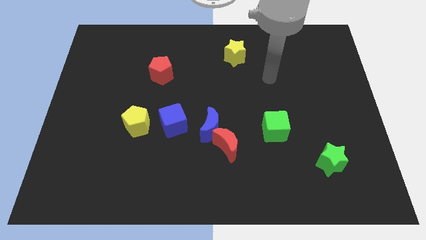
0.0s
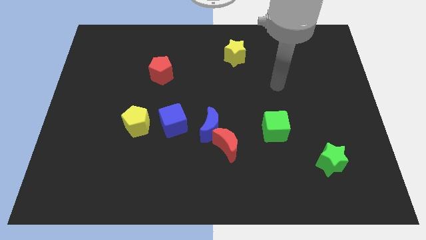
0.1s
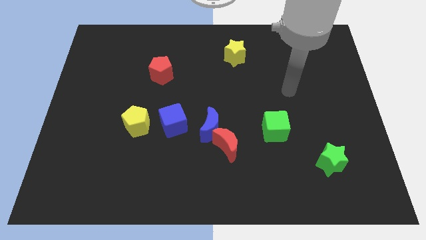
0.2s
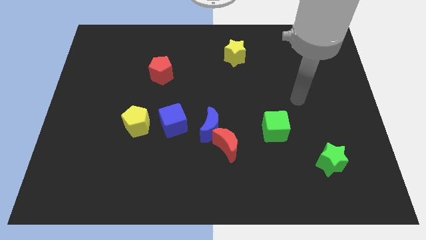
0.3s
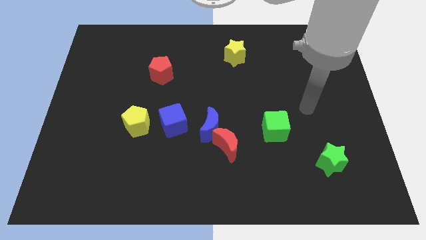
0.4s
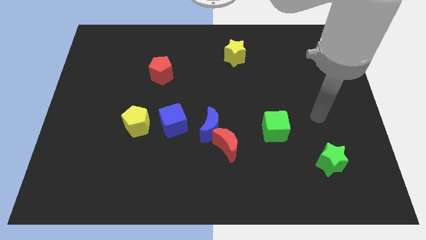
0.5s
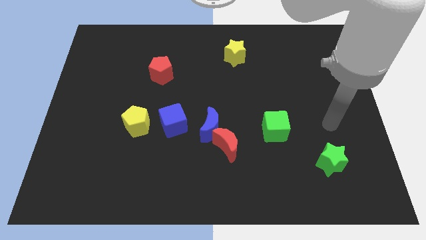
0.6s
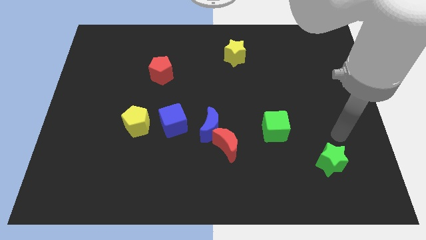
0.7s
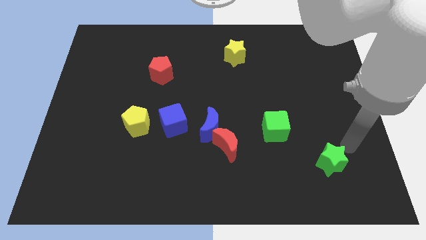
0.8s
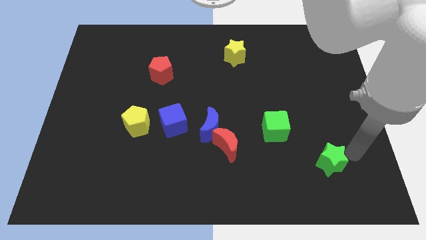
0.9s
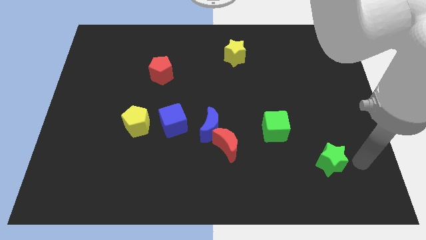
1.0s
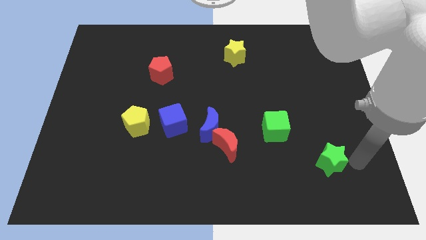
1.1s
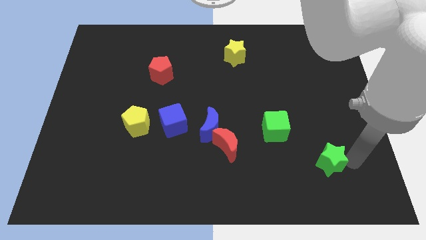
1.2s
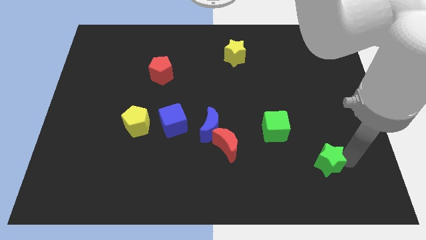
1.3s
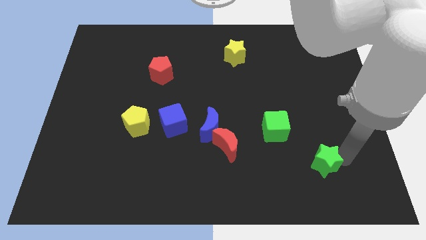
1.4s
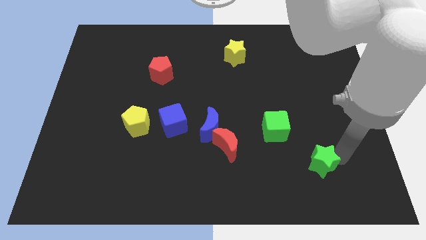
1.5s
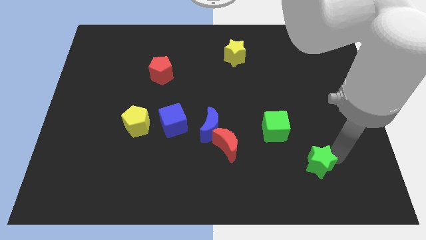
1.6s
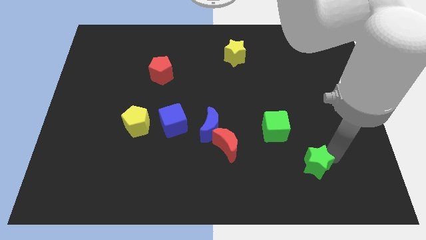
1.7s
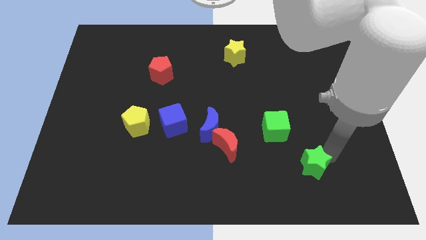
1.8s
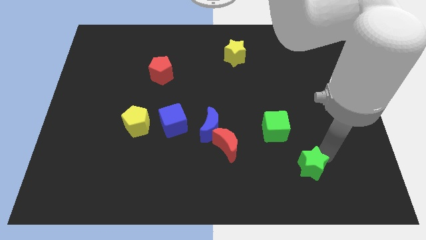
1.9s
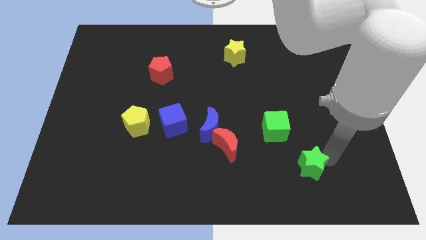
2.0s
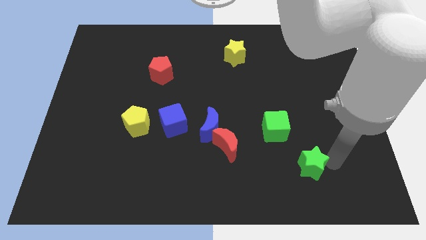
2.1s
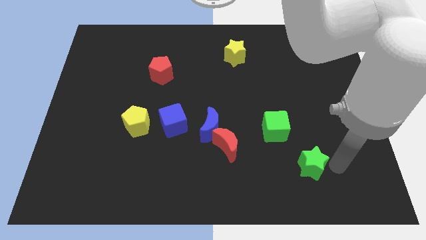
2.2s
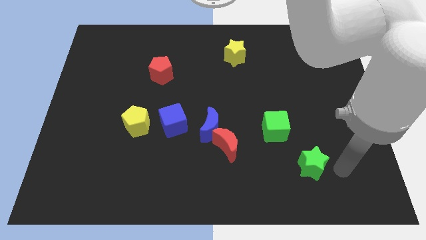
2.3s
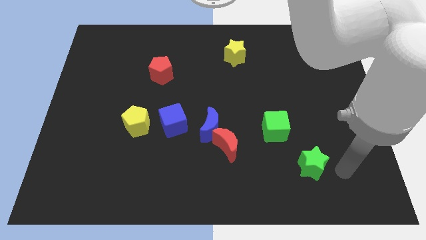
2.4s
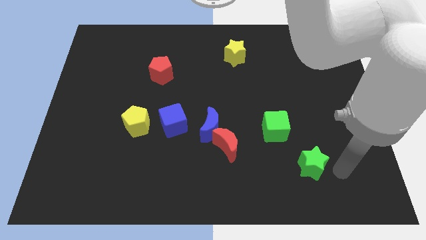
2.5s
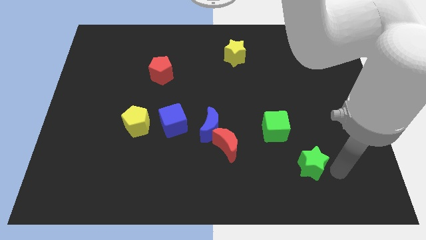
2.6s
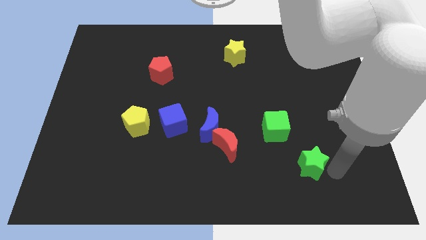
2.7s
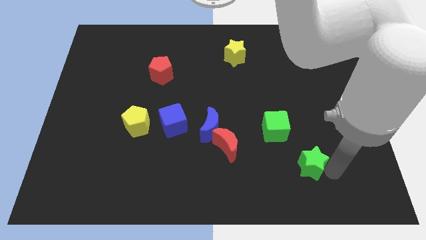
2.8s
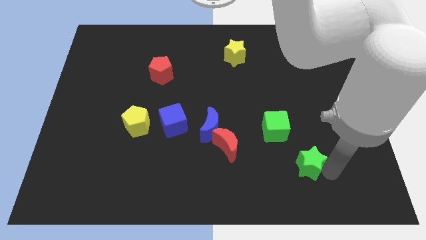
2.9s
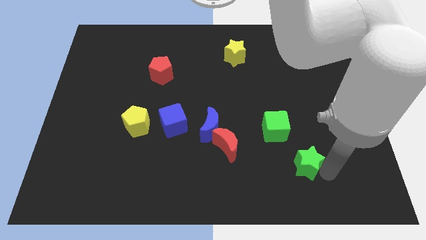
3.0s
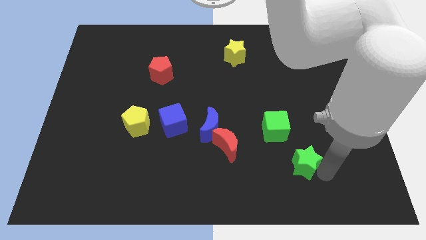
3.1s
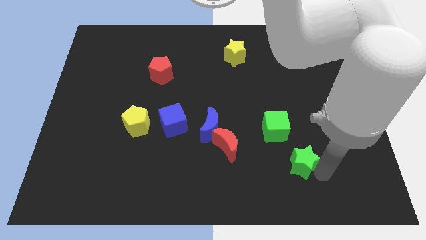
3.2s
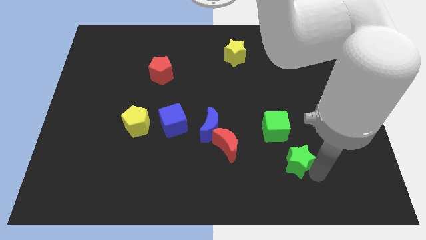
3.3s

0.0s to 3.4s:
slide the green star a little bit to the left

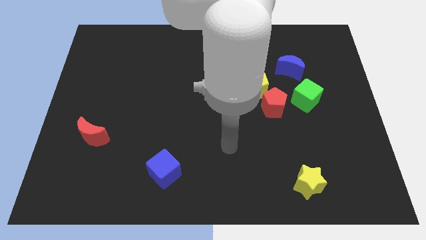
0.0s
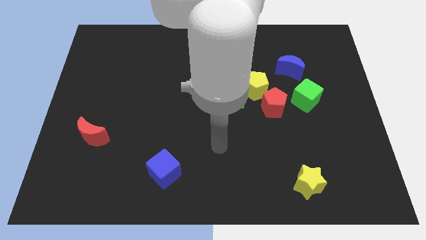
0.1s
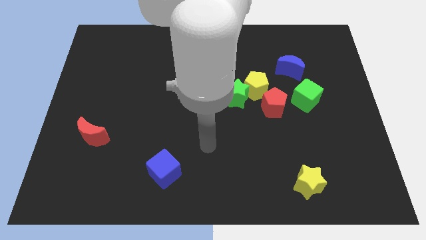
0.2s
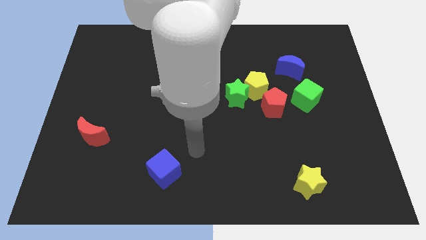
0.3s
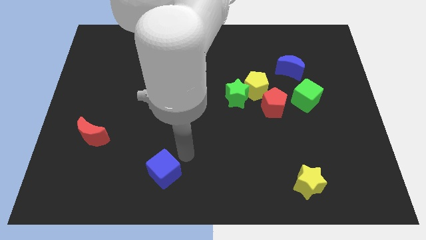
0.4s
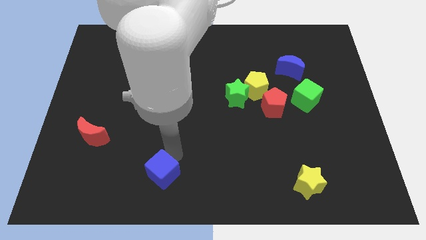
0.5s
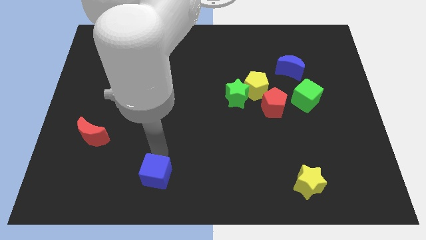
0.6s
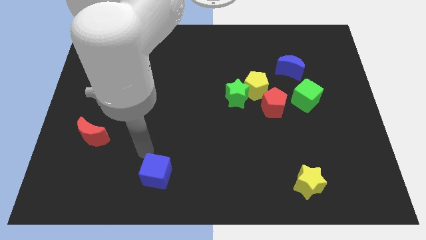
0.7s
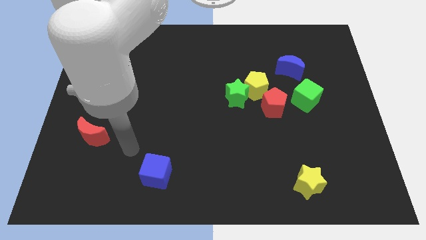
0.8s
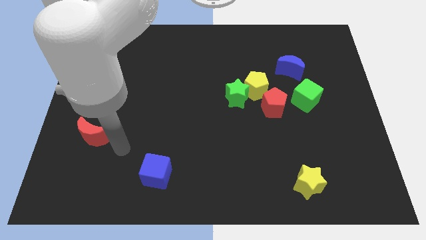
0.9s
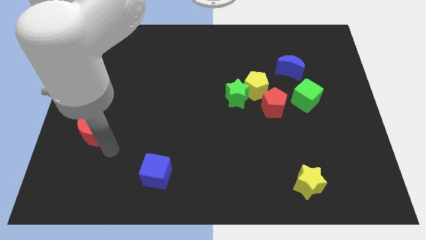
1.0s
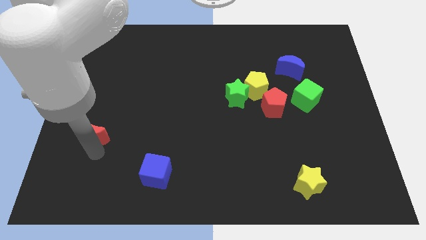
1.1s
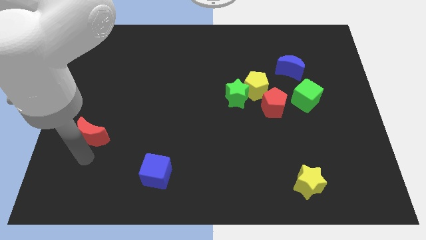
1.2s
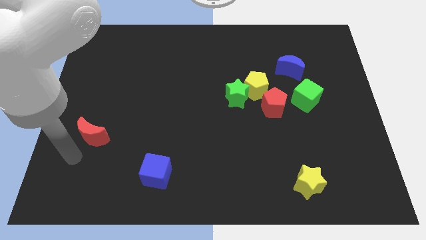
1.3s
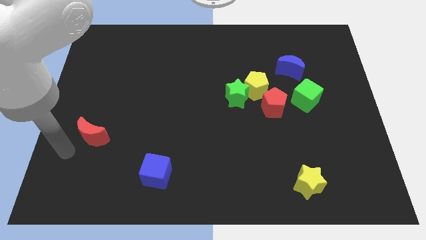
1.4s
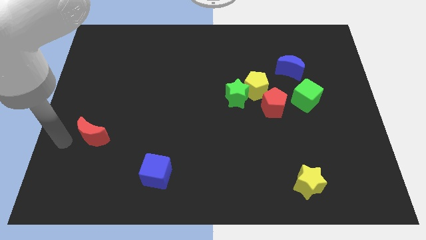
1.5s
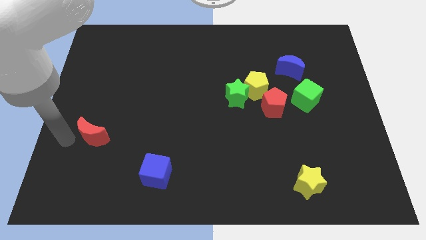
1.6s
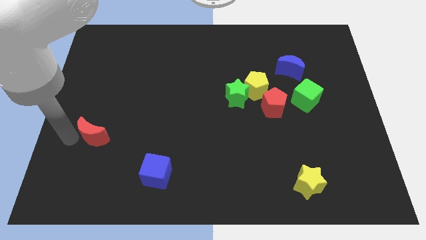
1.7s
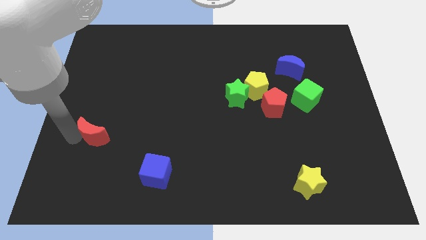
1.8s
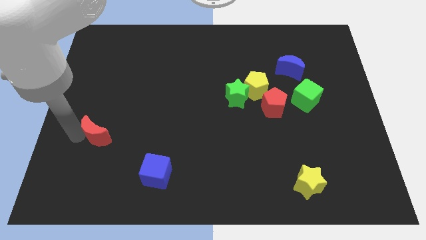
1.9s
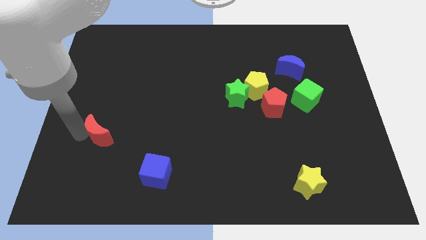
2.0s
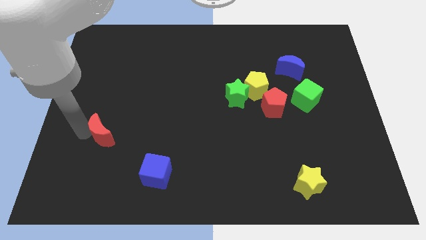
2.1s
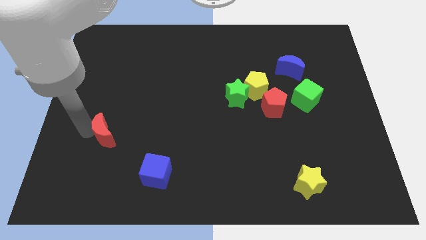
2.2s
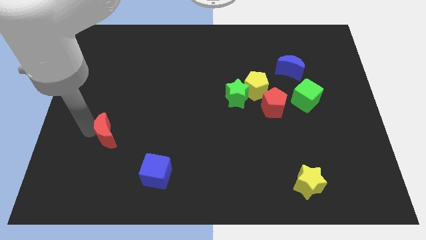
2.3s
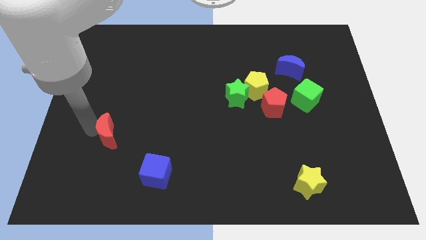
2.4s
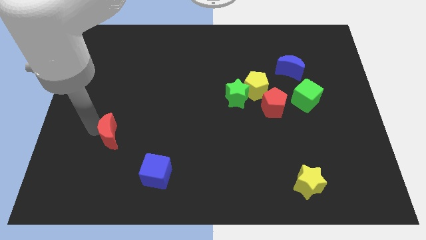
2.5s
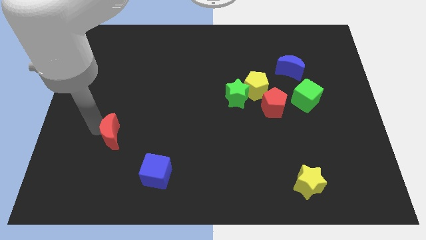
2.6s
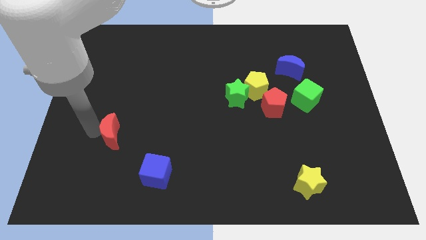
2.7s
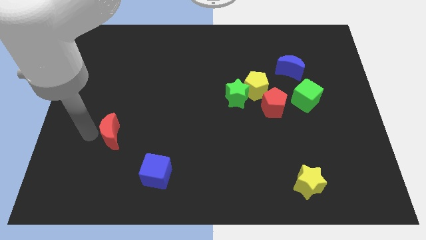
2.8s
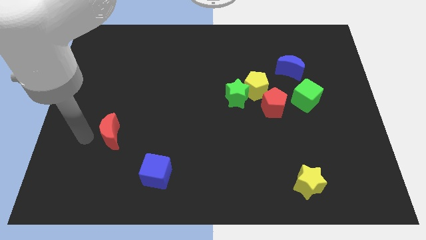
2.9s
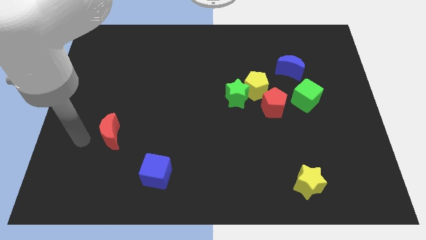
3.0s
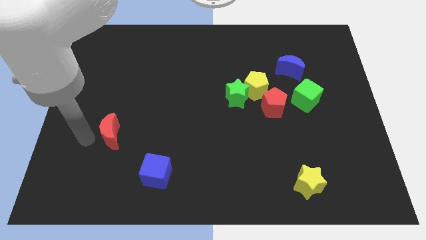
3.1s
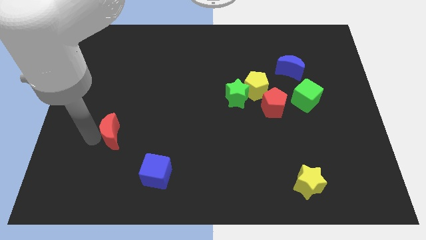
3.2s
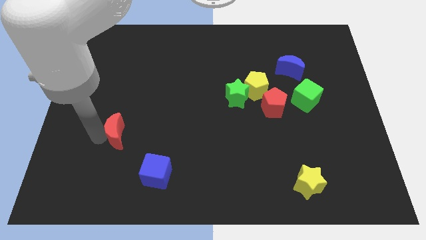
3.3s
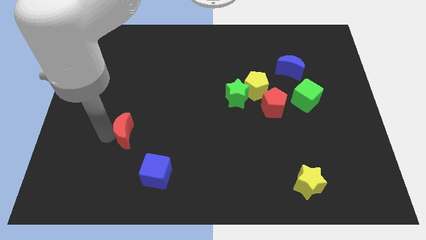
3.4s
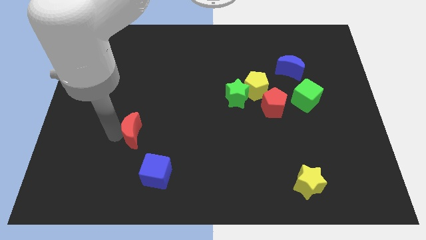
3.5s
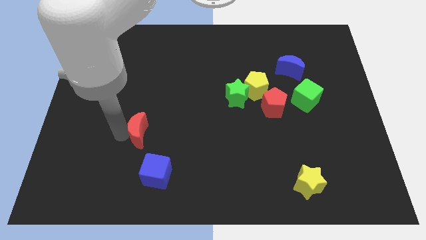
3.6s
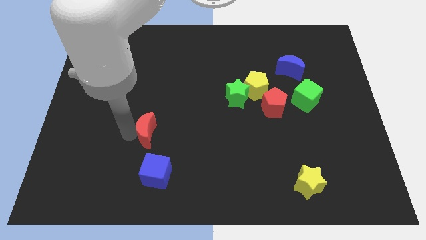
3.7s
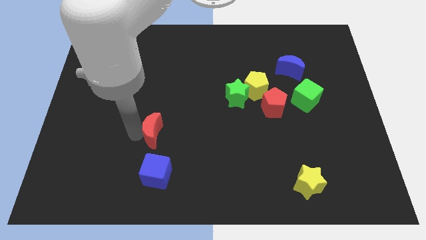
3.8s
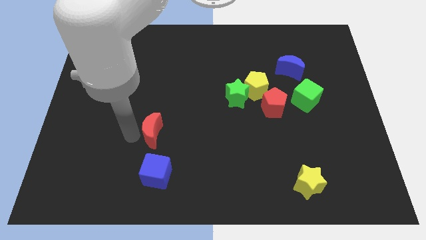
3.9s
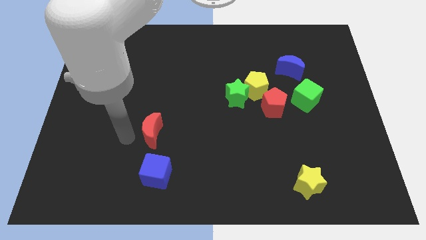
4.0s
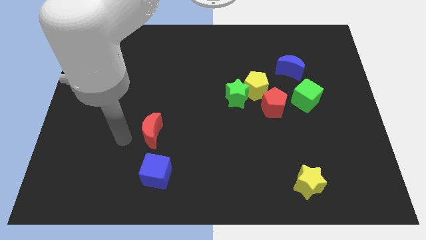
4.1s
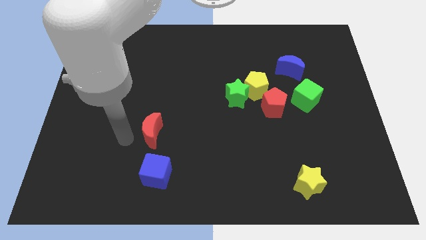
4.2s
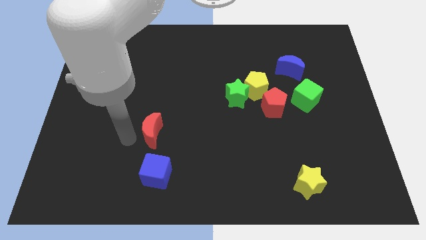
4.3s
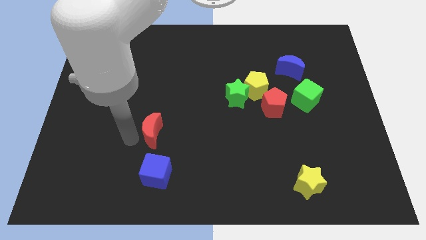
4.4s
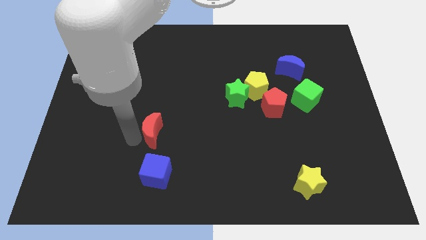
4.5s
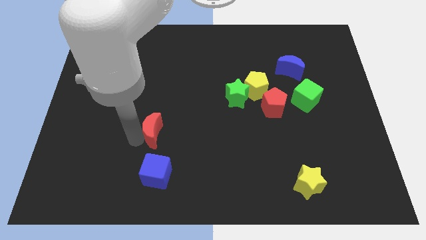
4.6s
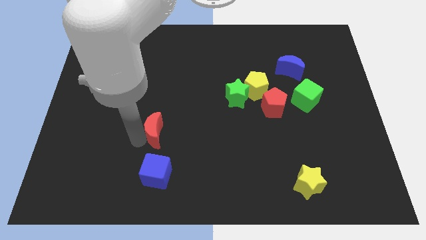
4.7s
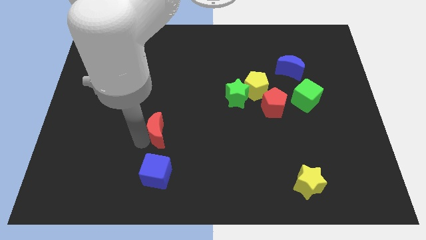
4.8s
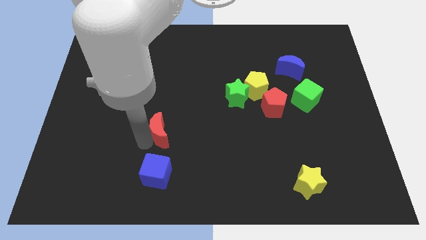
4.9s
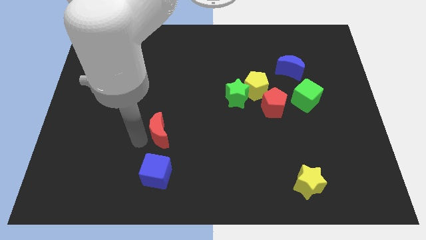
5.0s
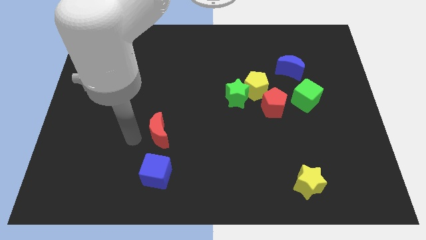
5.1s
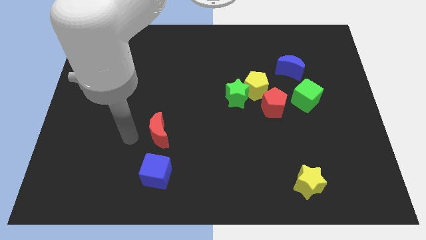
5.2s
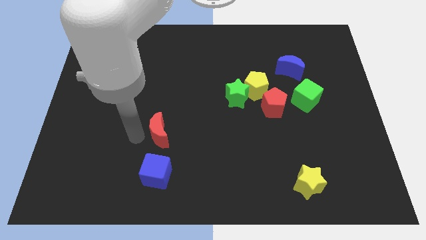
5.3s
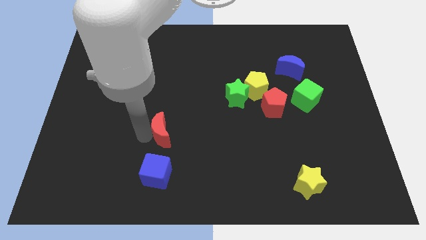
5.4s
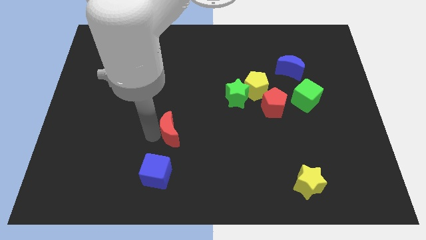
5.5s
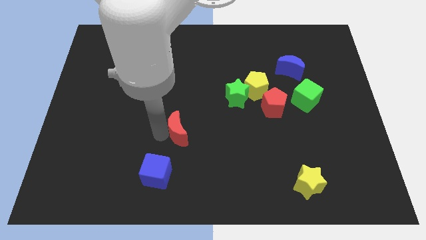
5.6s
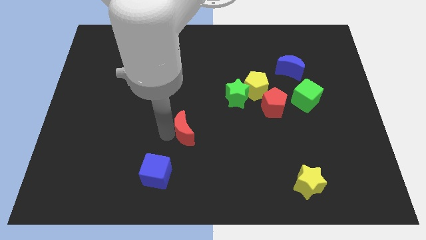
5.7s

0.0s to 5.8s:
slide the red moon right
